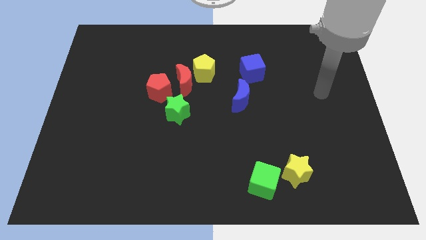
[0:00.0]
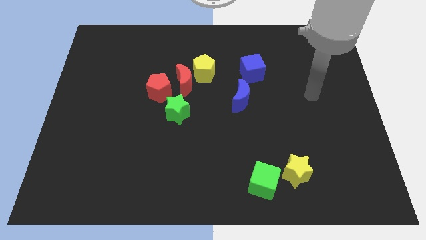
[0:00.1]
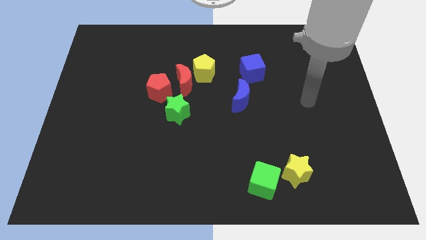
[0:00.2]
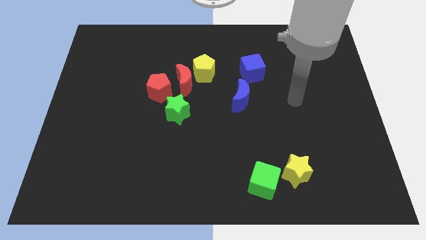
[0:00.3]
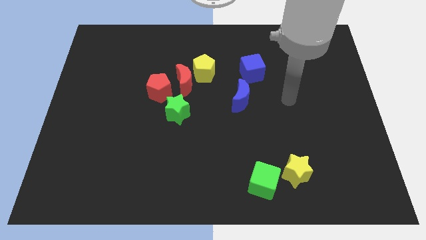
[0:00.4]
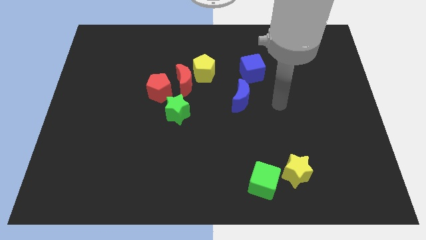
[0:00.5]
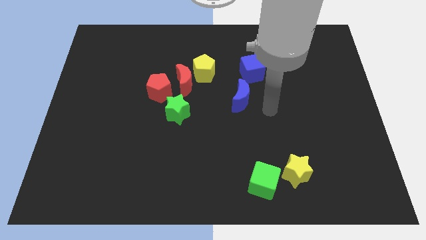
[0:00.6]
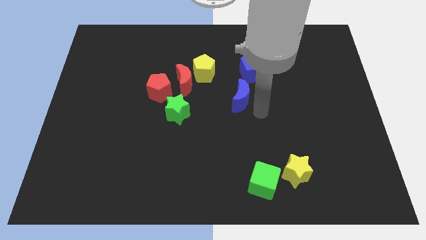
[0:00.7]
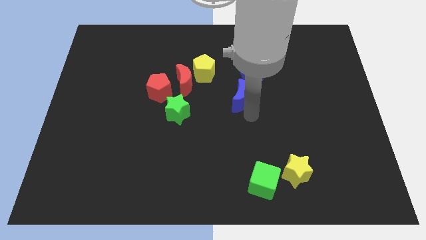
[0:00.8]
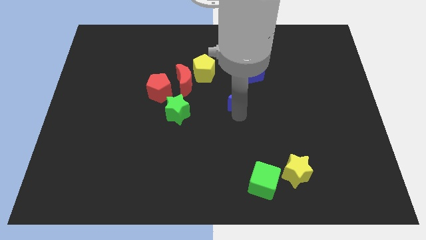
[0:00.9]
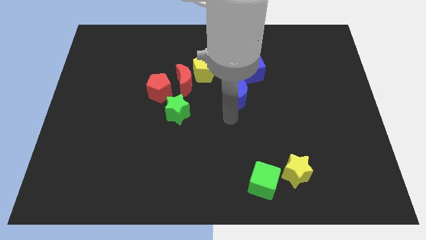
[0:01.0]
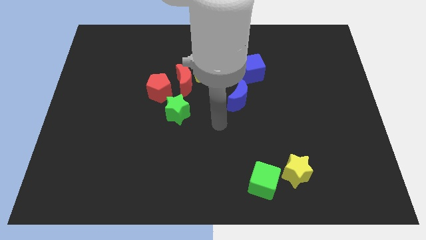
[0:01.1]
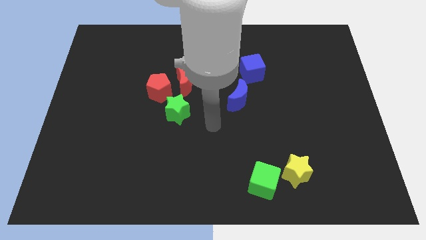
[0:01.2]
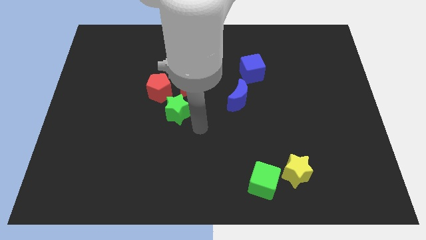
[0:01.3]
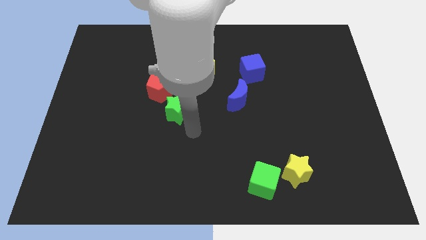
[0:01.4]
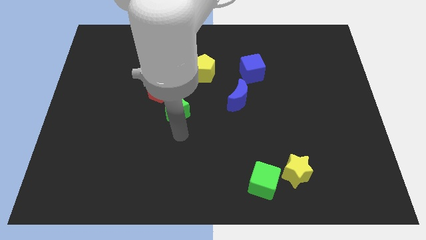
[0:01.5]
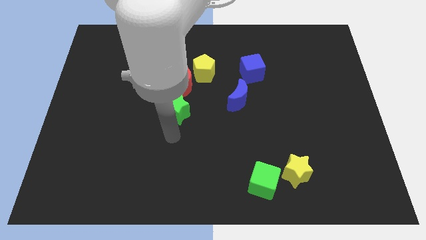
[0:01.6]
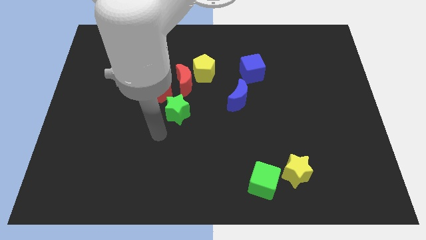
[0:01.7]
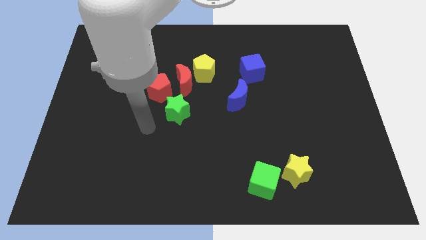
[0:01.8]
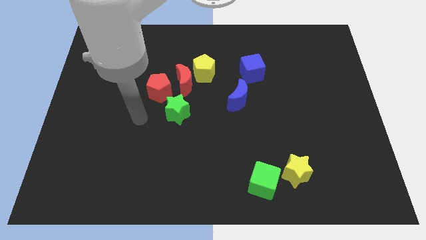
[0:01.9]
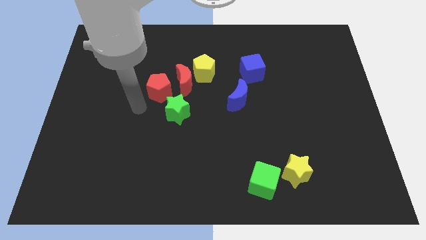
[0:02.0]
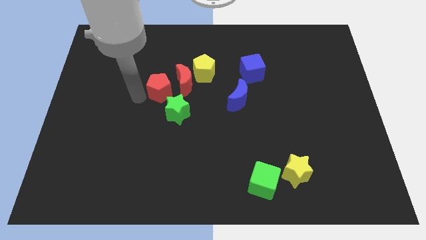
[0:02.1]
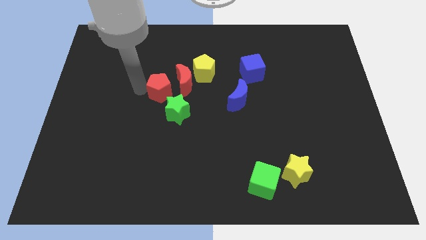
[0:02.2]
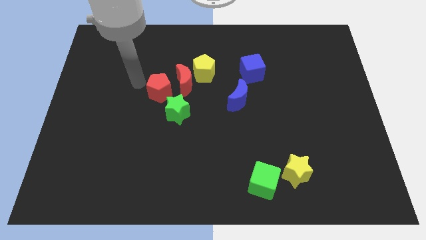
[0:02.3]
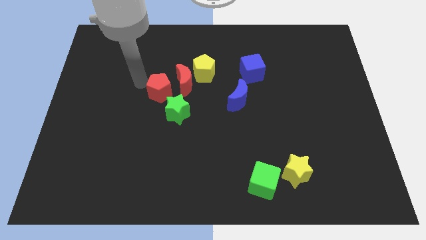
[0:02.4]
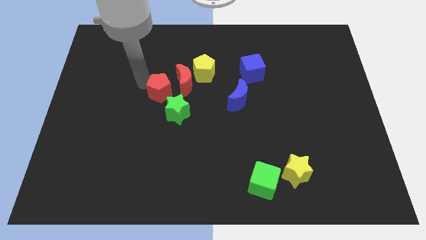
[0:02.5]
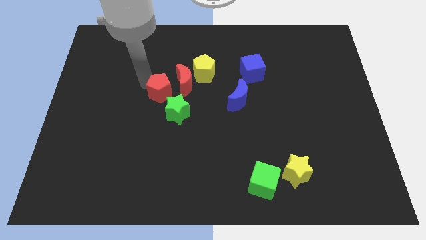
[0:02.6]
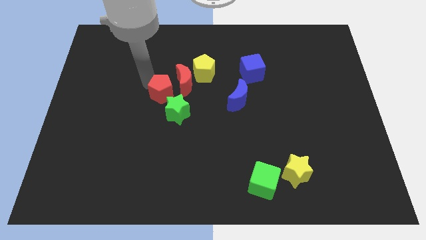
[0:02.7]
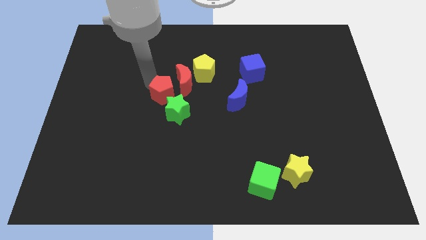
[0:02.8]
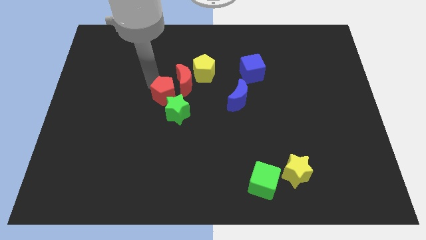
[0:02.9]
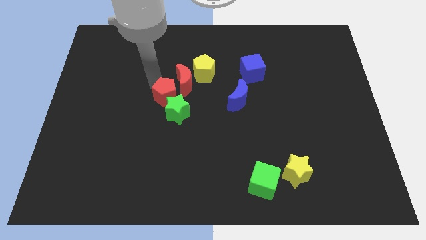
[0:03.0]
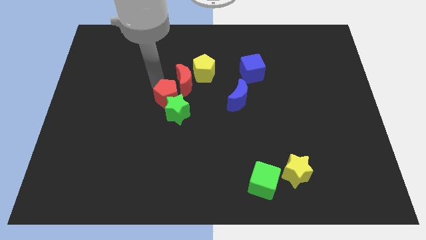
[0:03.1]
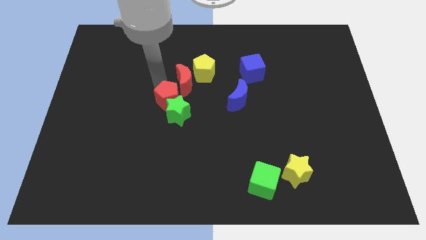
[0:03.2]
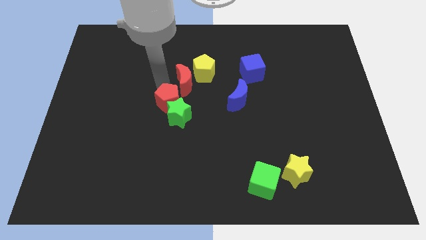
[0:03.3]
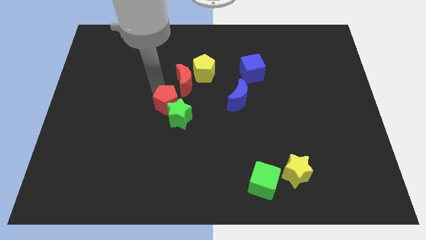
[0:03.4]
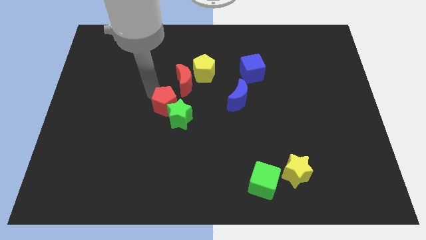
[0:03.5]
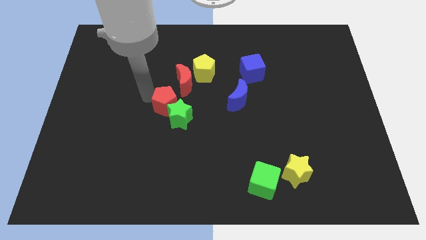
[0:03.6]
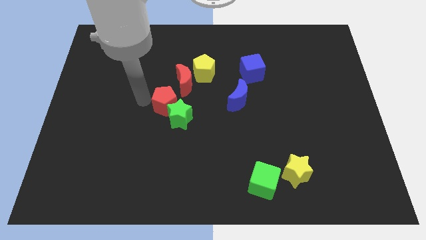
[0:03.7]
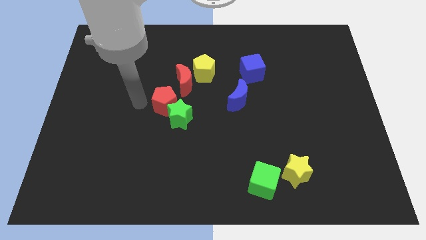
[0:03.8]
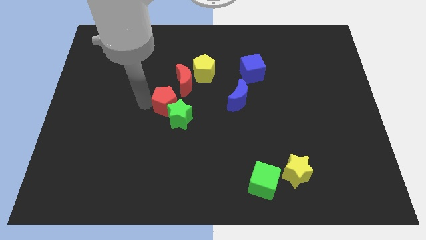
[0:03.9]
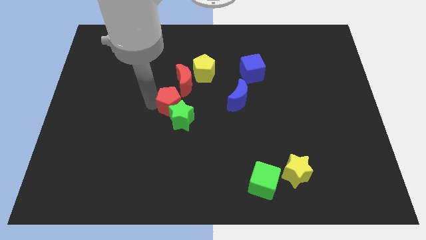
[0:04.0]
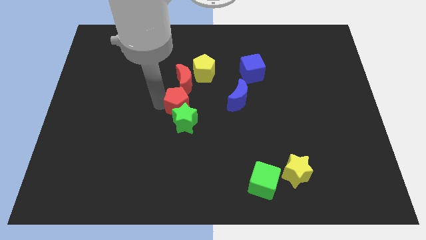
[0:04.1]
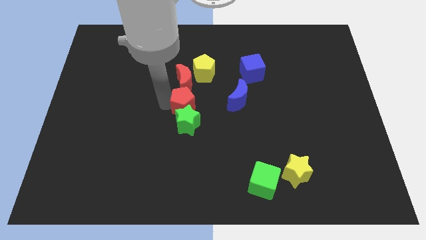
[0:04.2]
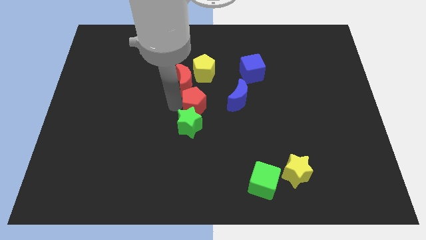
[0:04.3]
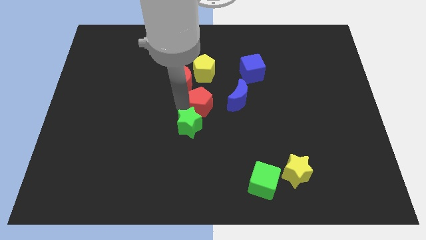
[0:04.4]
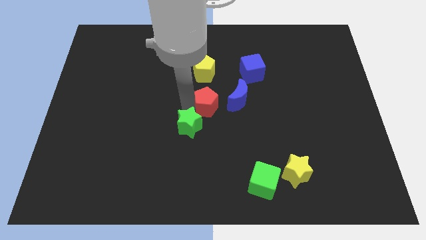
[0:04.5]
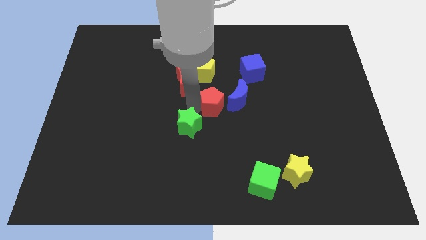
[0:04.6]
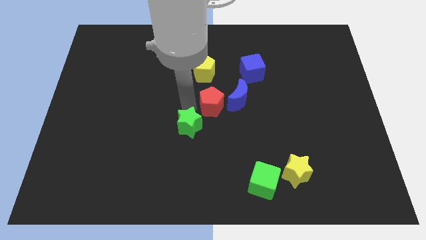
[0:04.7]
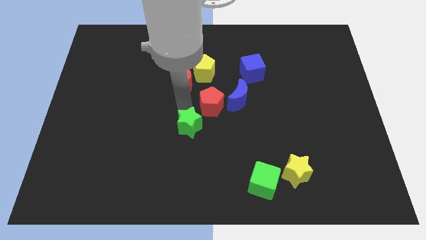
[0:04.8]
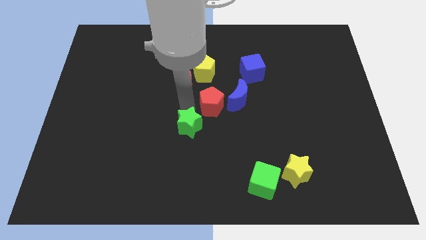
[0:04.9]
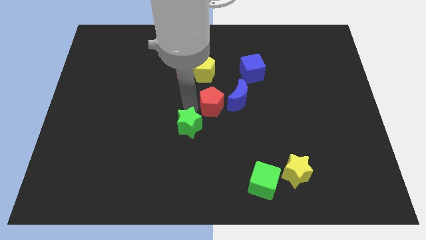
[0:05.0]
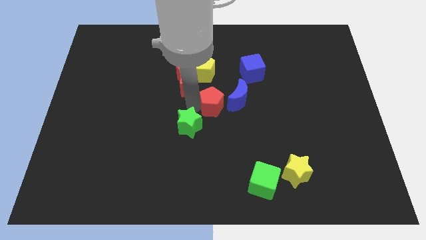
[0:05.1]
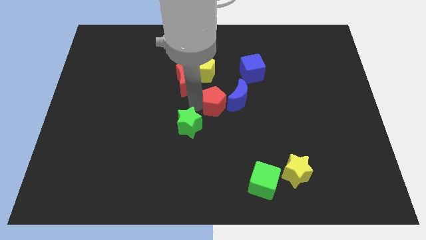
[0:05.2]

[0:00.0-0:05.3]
put the red pentagon towards the blue moon

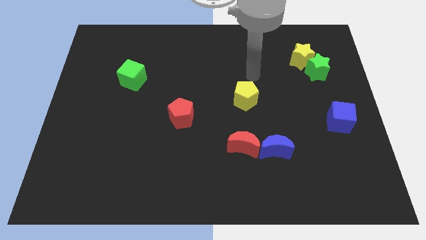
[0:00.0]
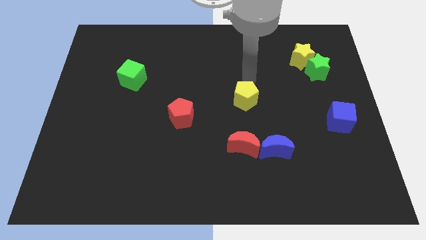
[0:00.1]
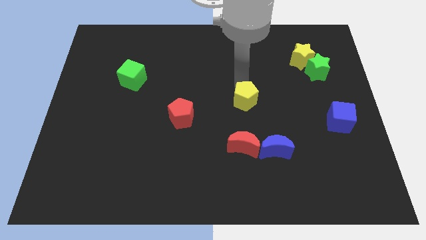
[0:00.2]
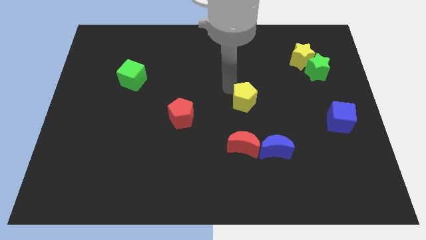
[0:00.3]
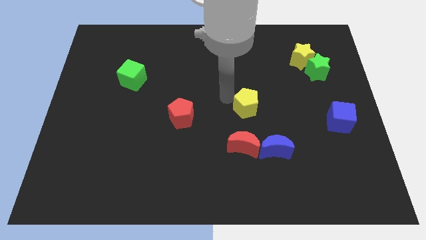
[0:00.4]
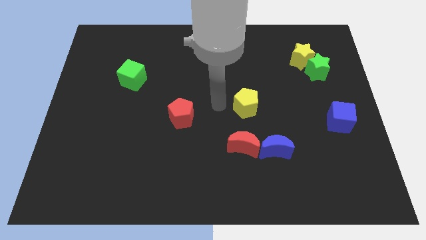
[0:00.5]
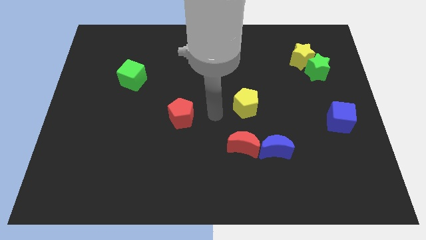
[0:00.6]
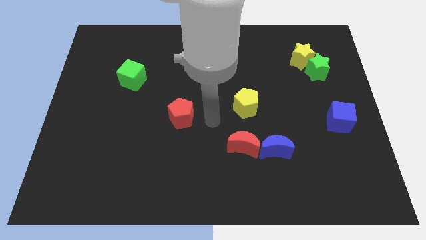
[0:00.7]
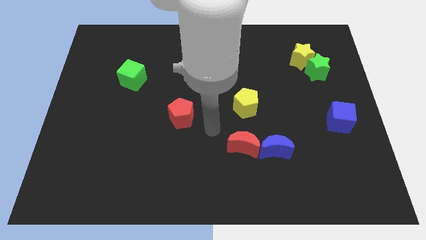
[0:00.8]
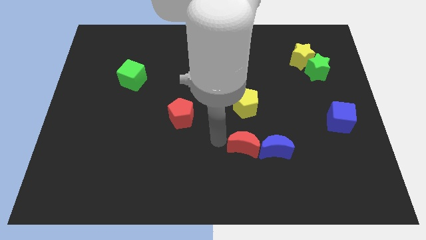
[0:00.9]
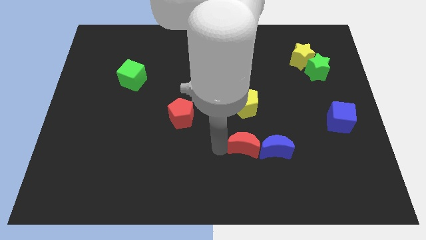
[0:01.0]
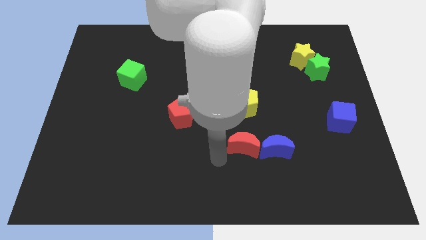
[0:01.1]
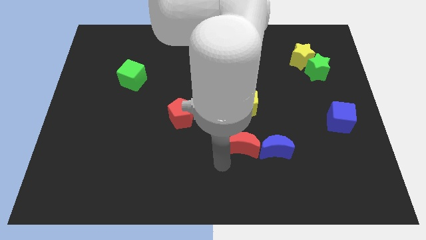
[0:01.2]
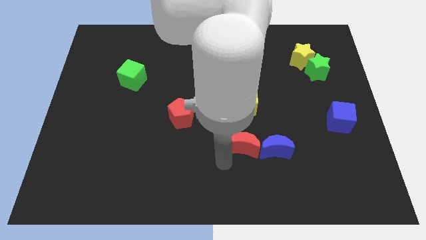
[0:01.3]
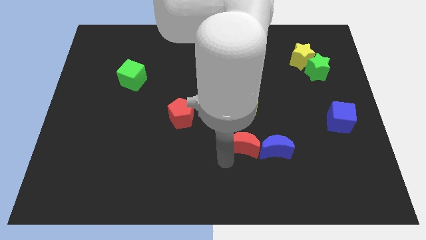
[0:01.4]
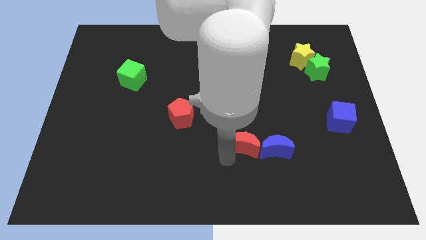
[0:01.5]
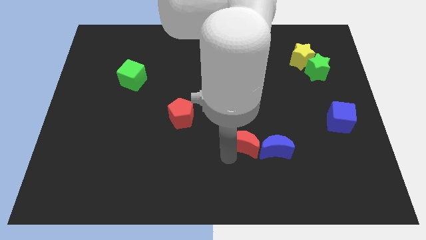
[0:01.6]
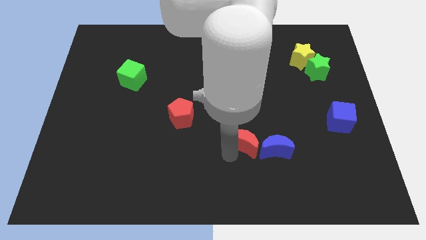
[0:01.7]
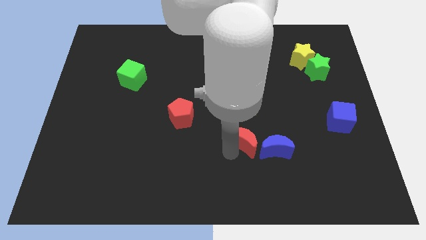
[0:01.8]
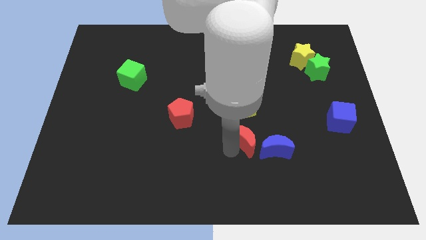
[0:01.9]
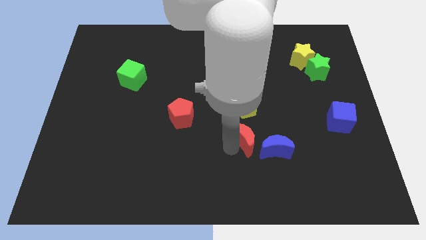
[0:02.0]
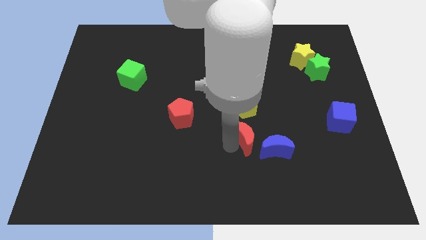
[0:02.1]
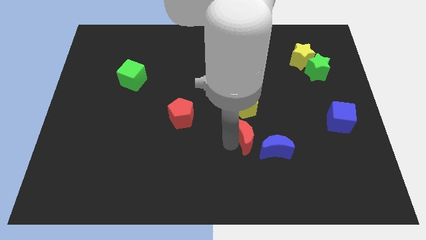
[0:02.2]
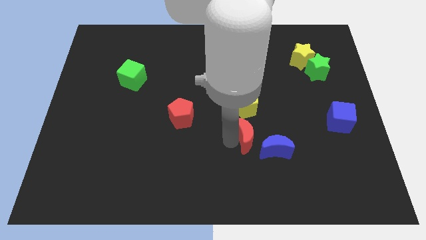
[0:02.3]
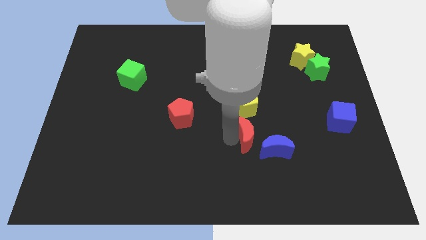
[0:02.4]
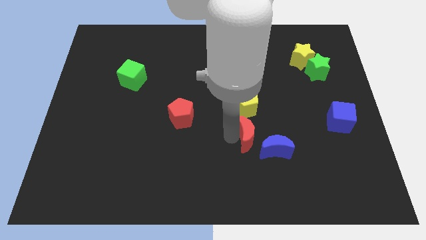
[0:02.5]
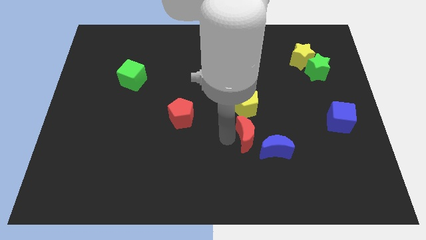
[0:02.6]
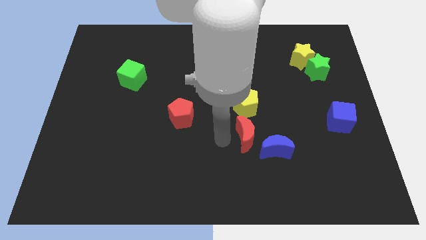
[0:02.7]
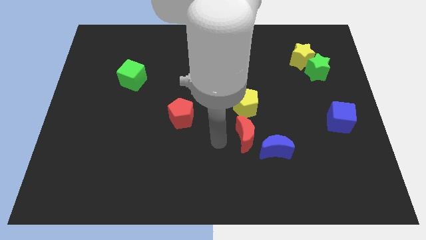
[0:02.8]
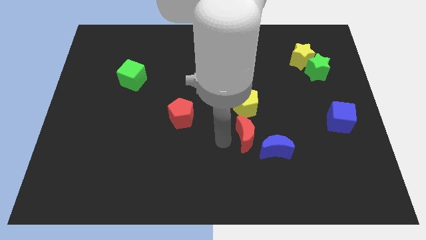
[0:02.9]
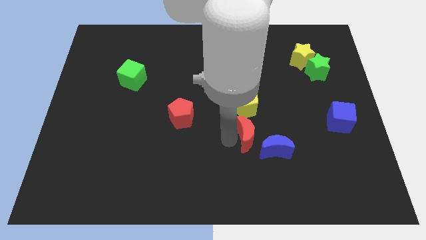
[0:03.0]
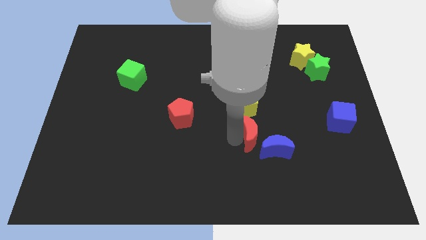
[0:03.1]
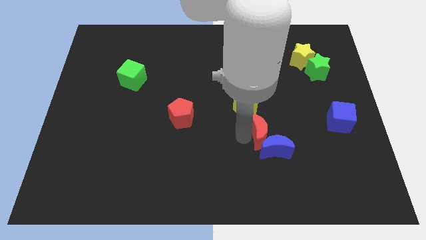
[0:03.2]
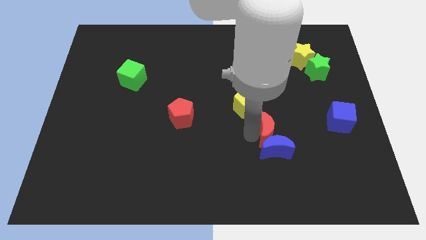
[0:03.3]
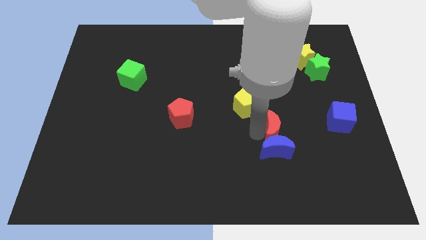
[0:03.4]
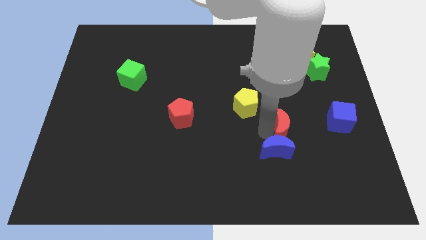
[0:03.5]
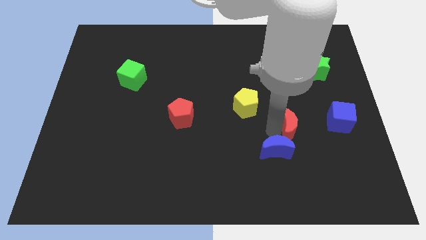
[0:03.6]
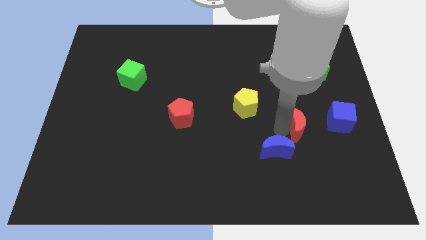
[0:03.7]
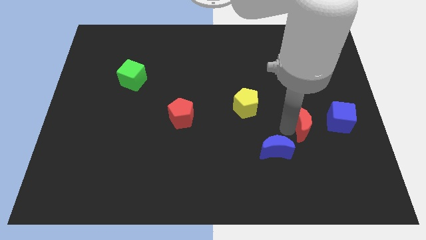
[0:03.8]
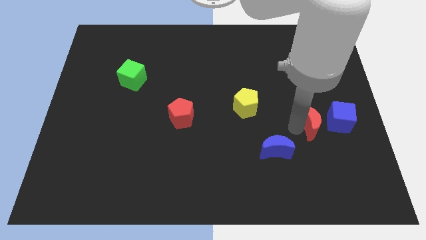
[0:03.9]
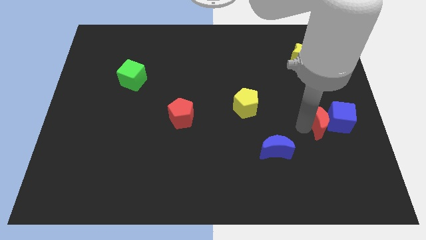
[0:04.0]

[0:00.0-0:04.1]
put the red moon to the blue cube
